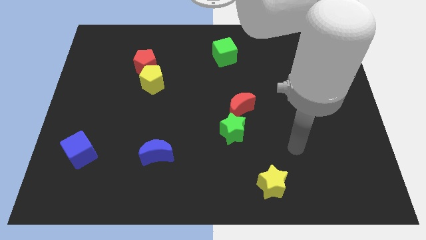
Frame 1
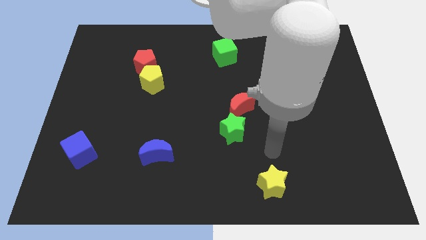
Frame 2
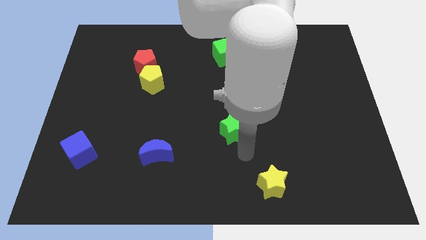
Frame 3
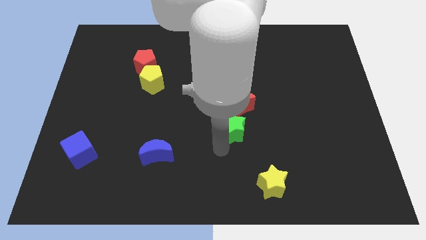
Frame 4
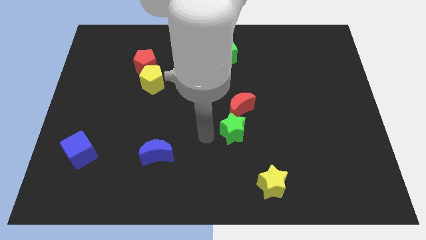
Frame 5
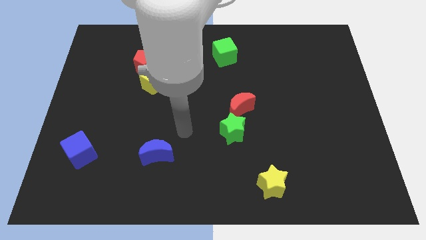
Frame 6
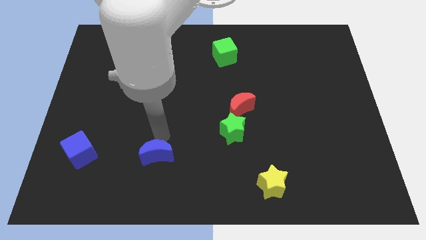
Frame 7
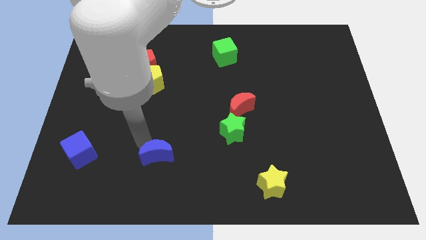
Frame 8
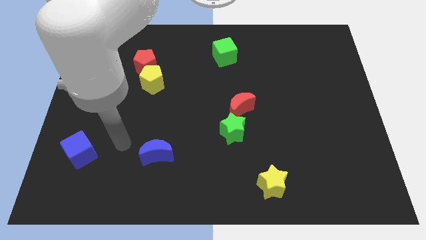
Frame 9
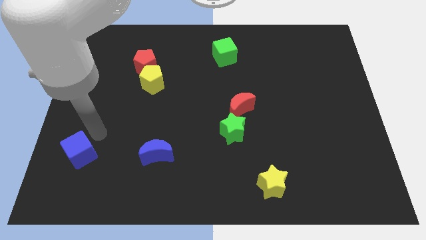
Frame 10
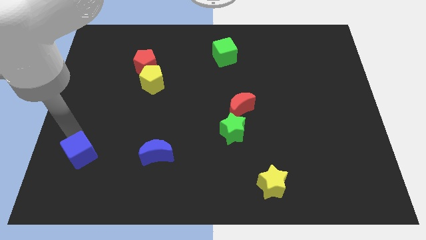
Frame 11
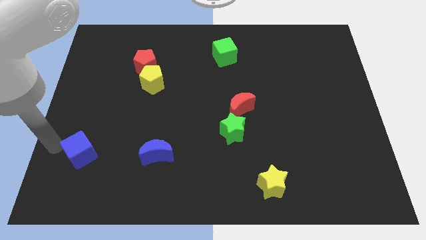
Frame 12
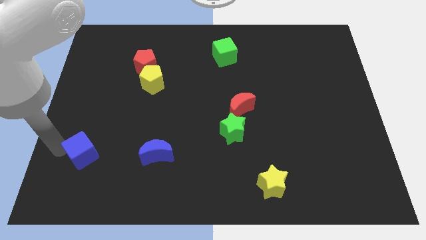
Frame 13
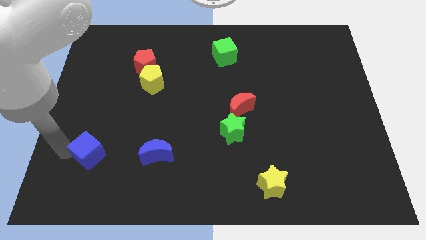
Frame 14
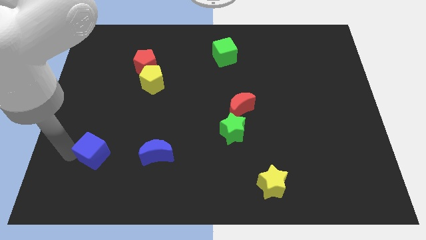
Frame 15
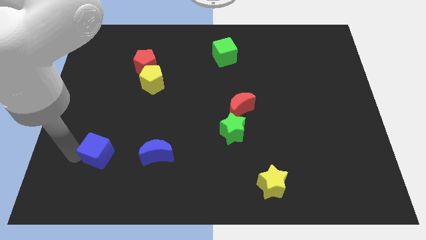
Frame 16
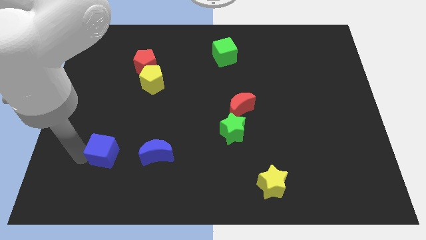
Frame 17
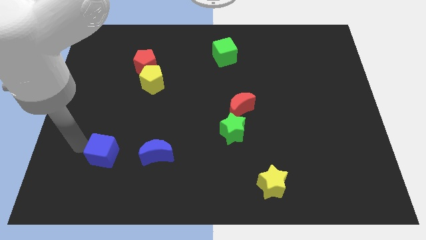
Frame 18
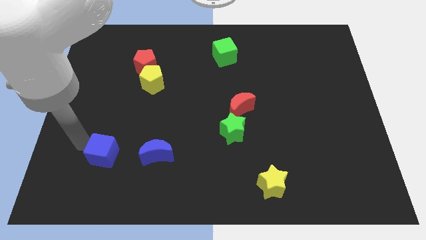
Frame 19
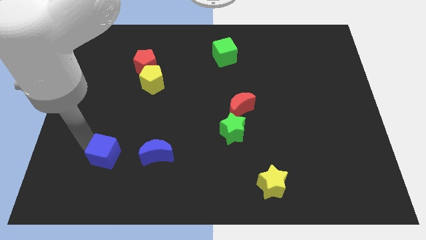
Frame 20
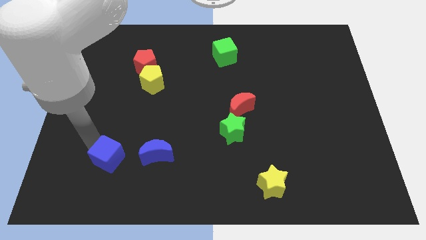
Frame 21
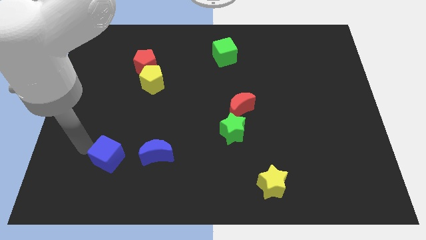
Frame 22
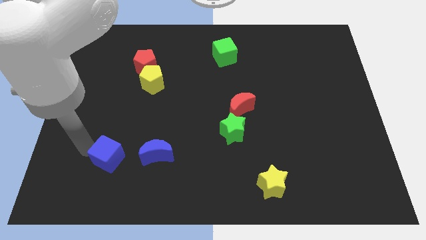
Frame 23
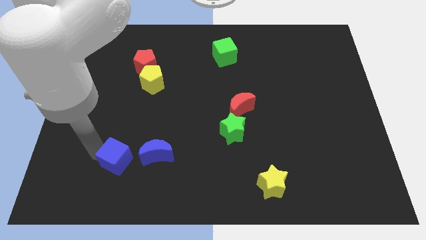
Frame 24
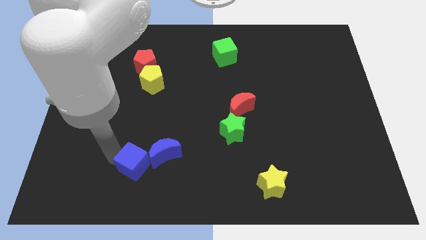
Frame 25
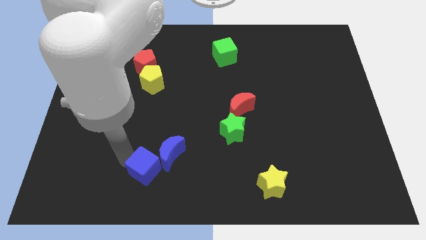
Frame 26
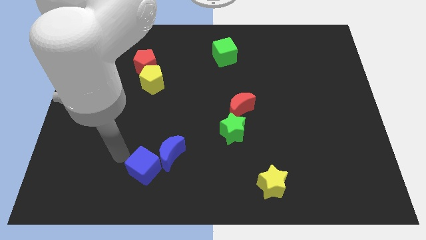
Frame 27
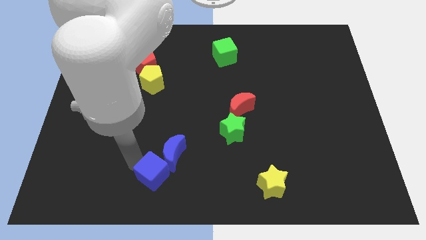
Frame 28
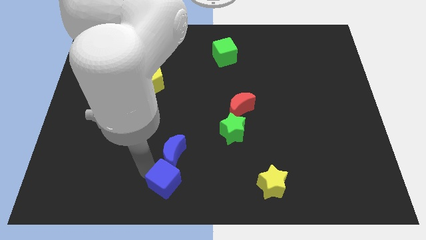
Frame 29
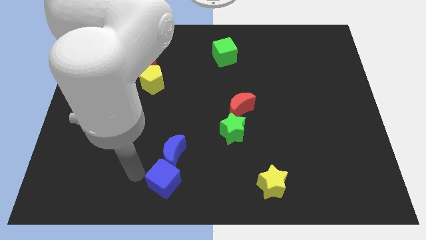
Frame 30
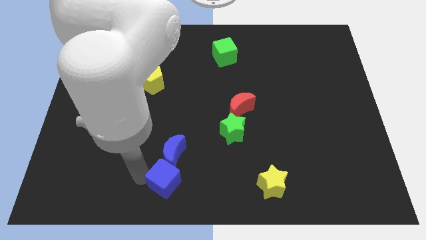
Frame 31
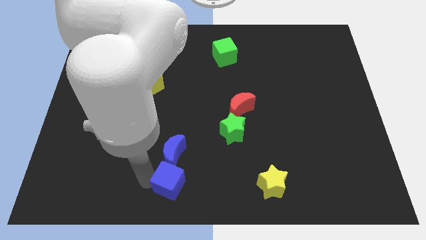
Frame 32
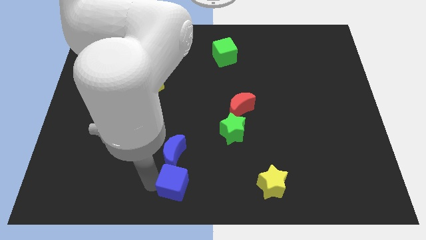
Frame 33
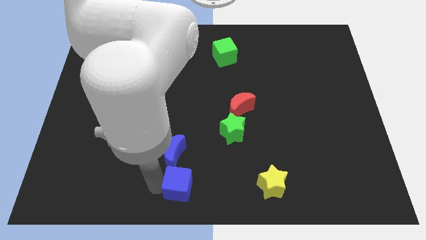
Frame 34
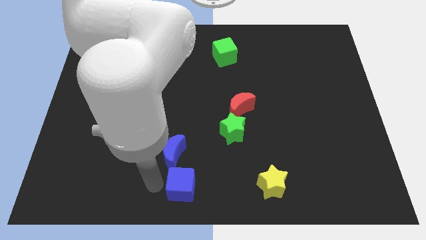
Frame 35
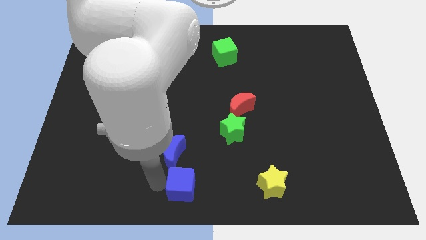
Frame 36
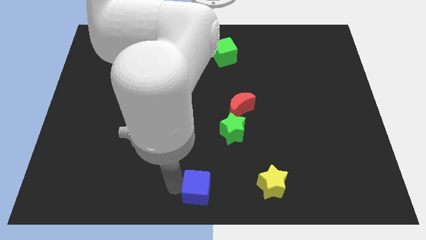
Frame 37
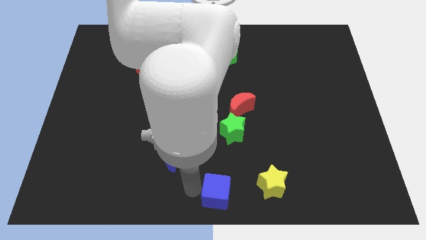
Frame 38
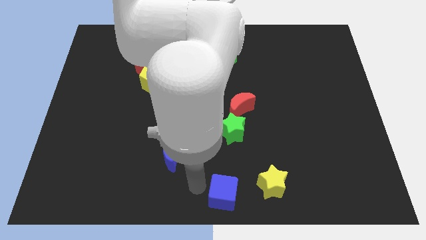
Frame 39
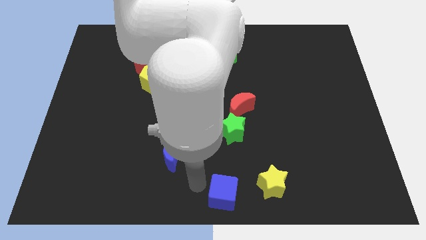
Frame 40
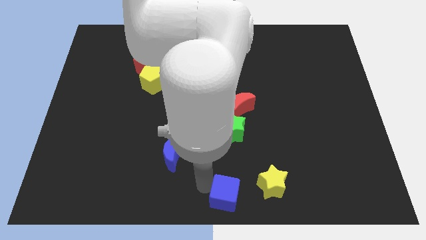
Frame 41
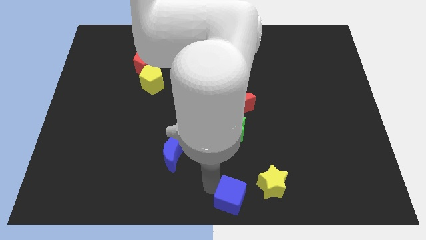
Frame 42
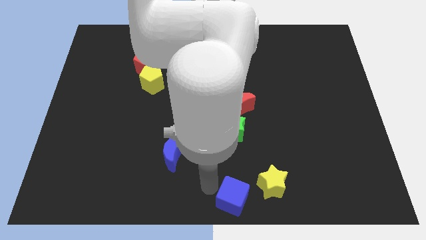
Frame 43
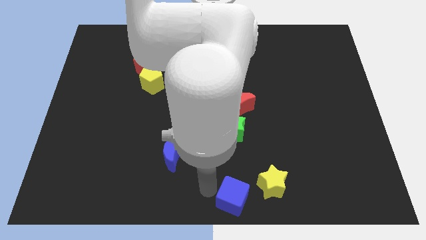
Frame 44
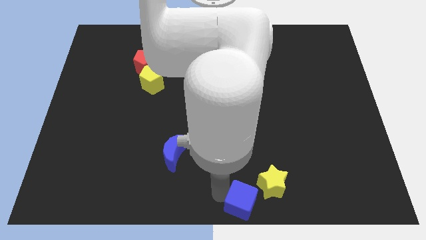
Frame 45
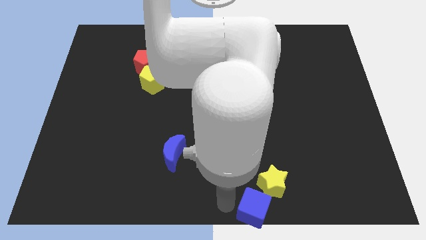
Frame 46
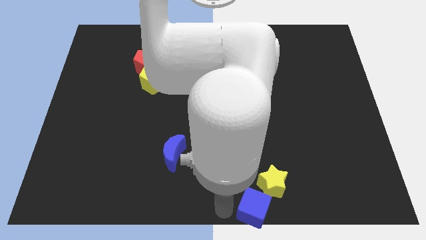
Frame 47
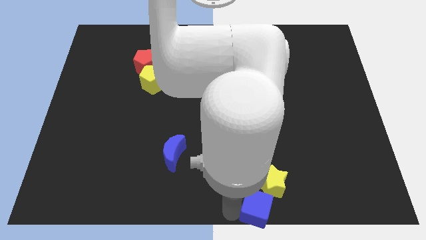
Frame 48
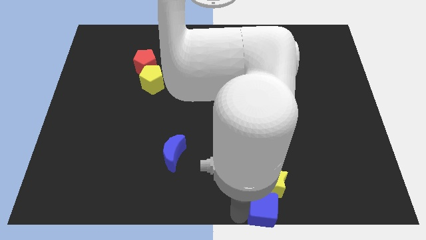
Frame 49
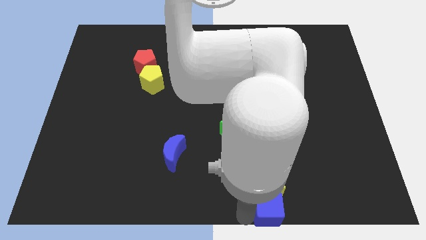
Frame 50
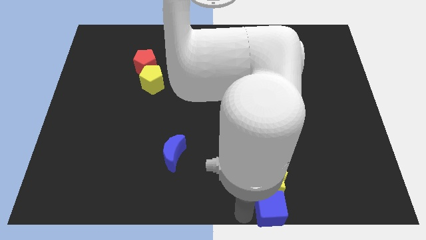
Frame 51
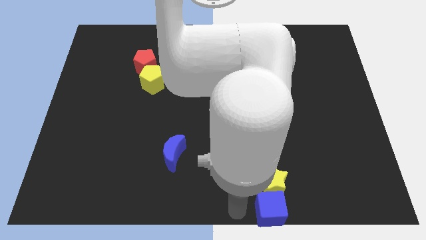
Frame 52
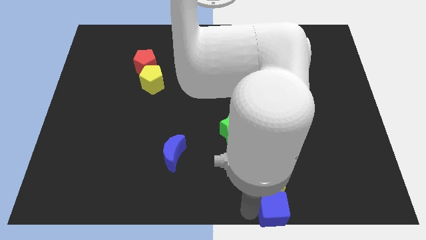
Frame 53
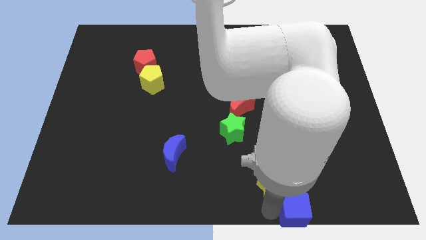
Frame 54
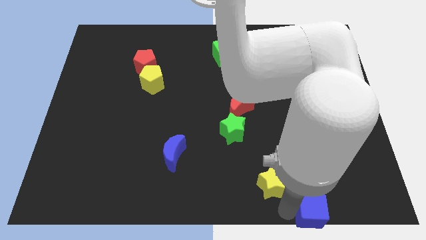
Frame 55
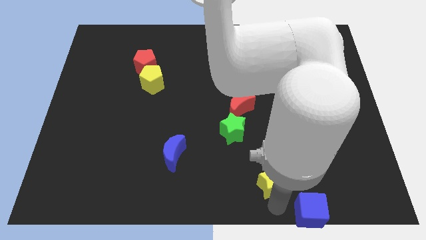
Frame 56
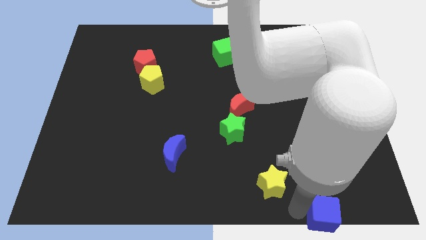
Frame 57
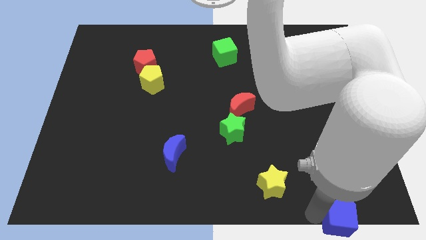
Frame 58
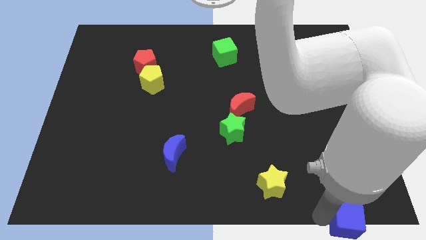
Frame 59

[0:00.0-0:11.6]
put the blue cube to the bottom right of the board
